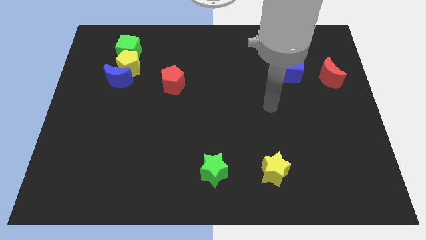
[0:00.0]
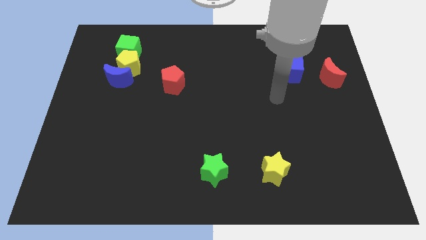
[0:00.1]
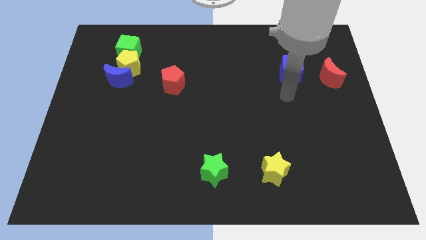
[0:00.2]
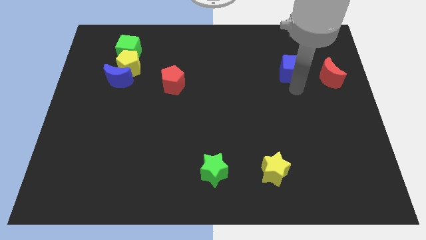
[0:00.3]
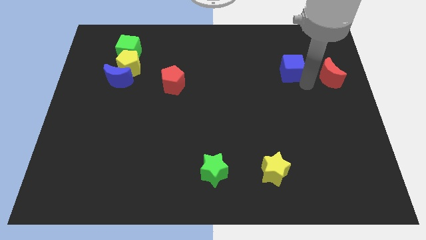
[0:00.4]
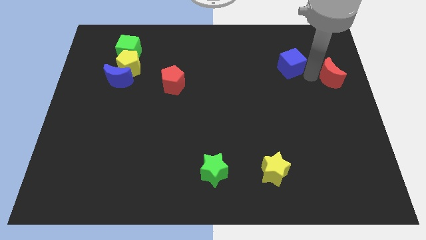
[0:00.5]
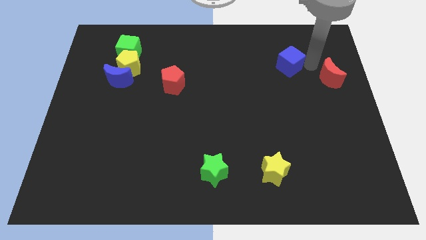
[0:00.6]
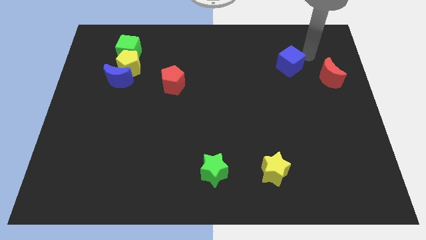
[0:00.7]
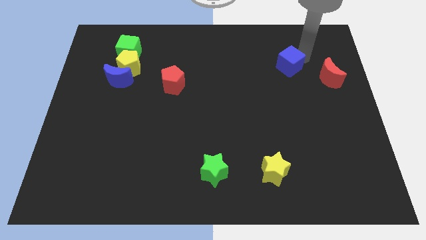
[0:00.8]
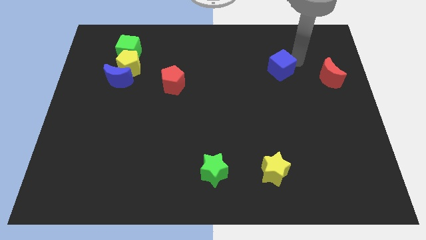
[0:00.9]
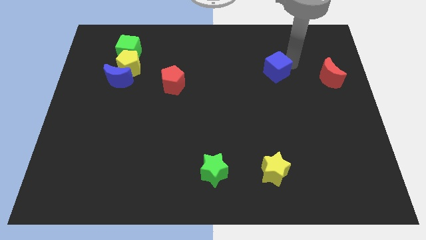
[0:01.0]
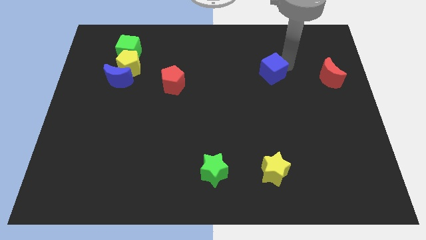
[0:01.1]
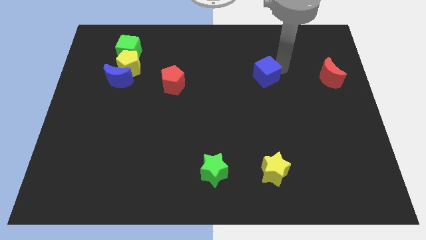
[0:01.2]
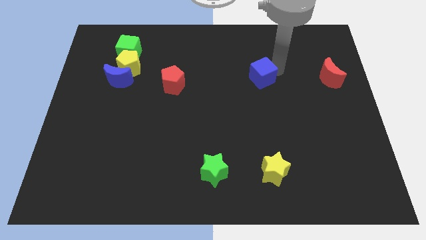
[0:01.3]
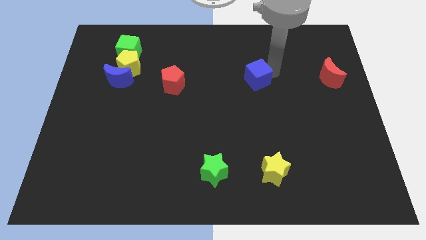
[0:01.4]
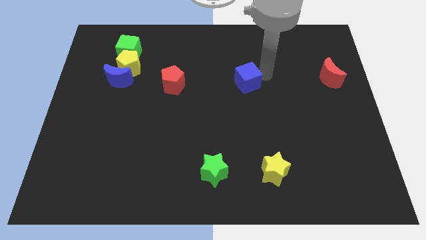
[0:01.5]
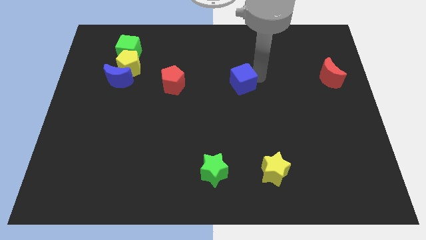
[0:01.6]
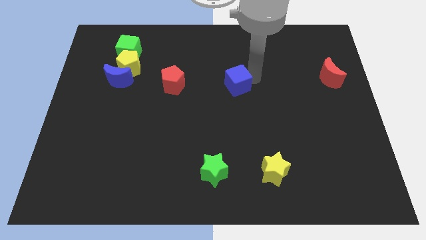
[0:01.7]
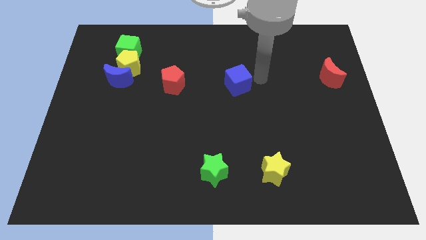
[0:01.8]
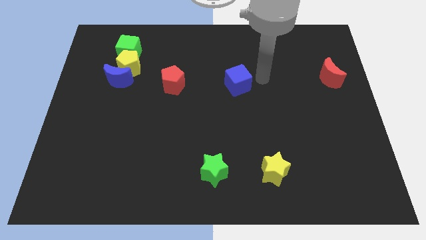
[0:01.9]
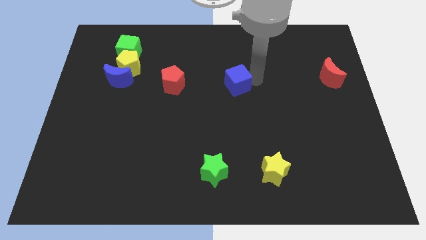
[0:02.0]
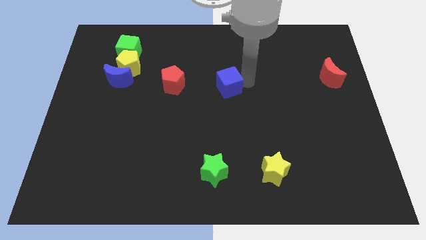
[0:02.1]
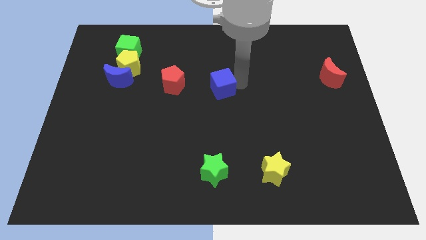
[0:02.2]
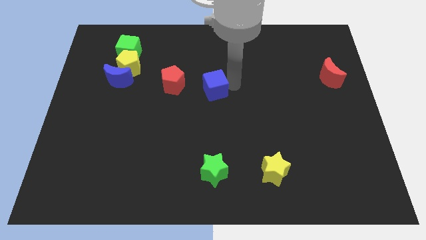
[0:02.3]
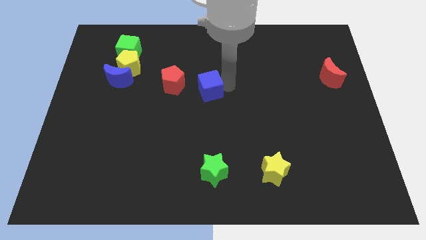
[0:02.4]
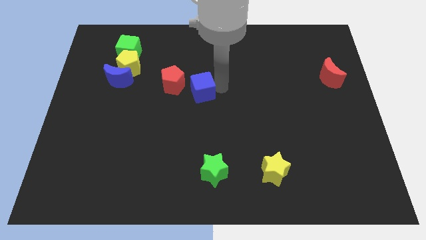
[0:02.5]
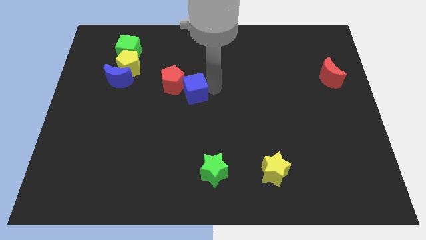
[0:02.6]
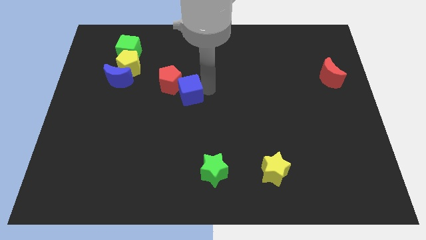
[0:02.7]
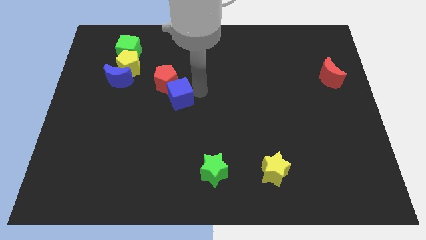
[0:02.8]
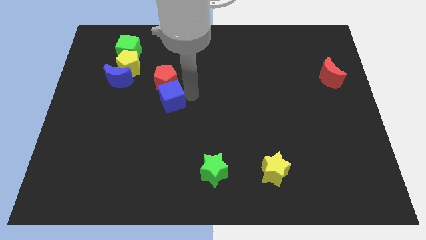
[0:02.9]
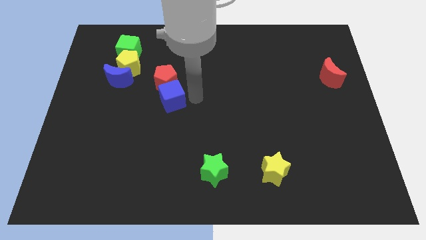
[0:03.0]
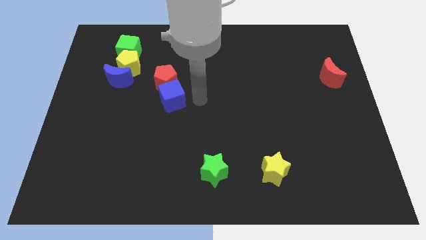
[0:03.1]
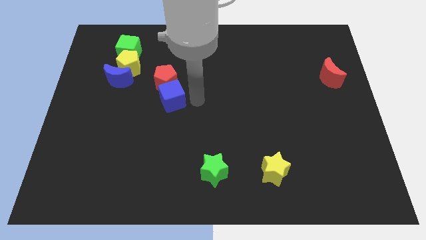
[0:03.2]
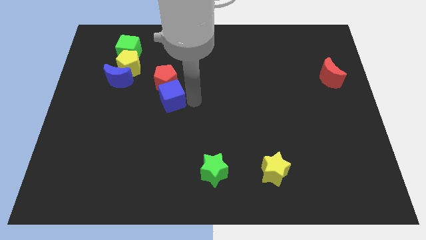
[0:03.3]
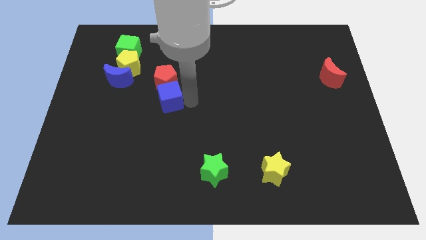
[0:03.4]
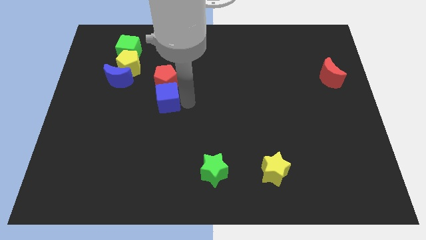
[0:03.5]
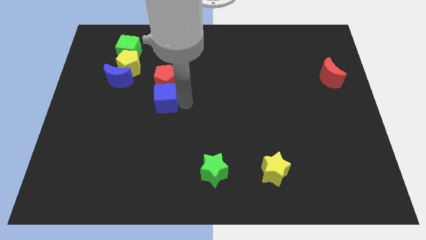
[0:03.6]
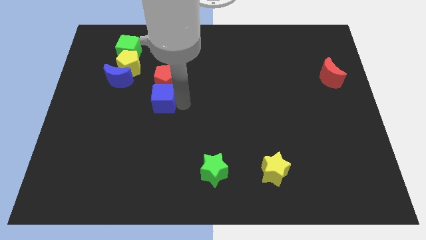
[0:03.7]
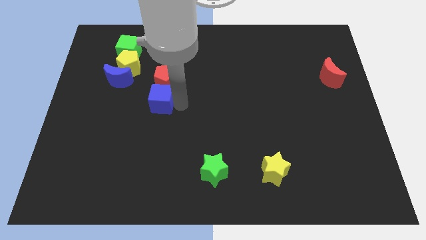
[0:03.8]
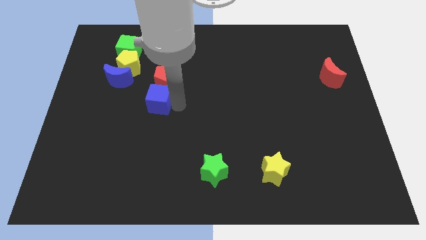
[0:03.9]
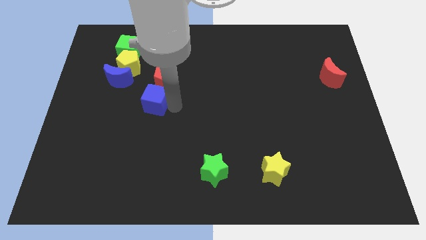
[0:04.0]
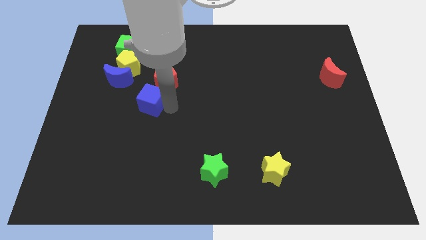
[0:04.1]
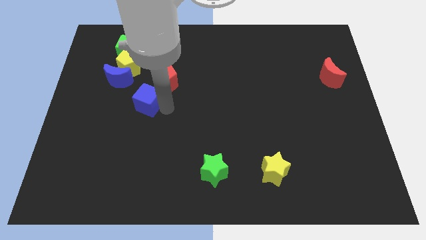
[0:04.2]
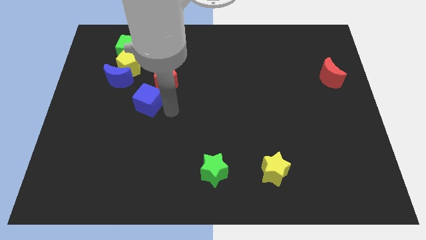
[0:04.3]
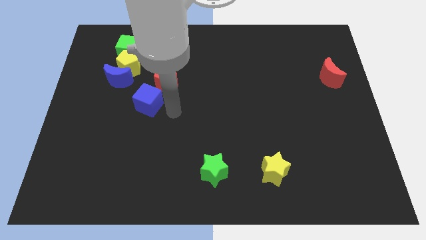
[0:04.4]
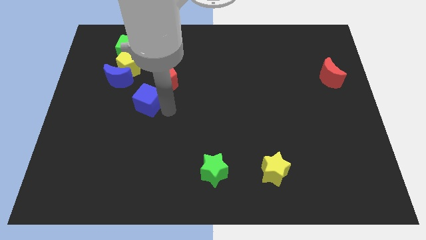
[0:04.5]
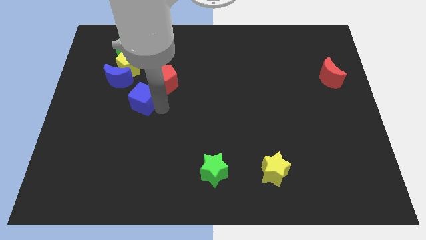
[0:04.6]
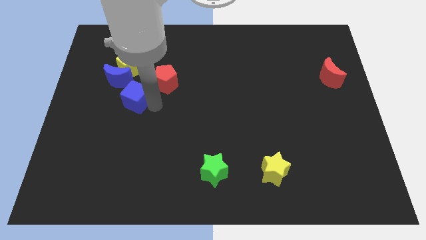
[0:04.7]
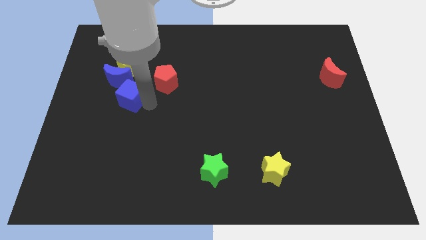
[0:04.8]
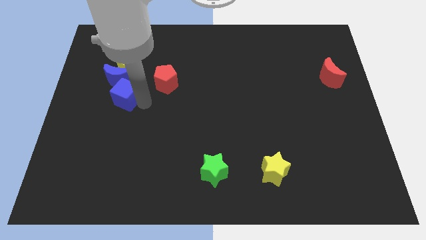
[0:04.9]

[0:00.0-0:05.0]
move the blue cube to the bottom of the green cube

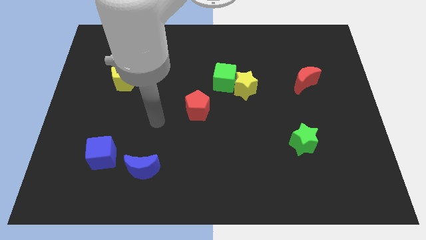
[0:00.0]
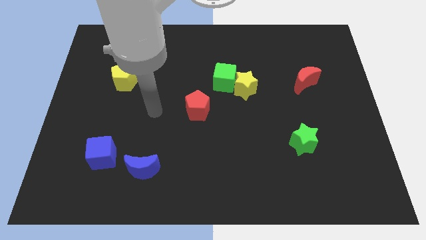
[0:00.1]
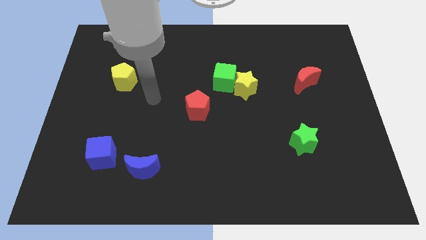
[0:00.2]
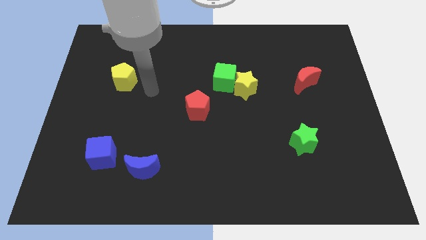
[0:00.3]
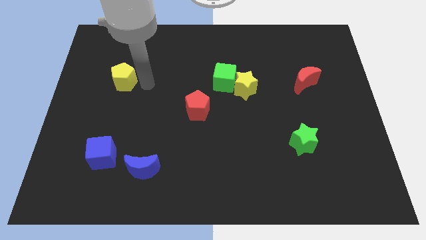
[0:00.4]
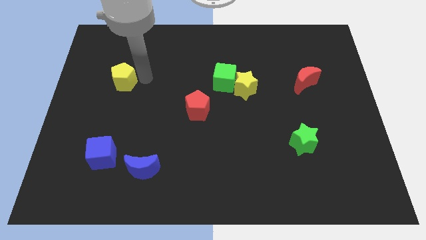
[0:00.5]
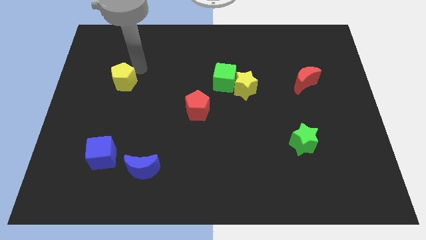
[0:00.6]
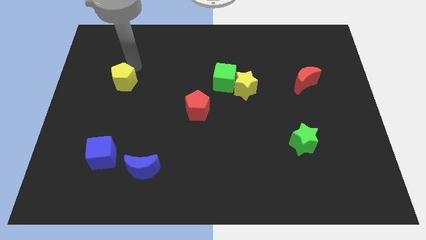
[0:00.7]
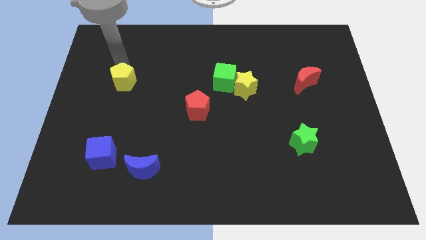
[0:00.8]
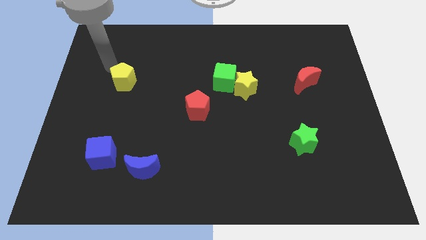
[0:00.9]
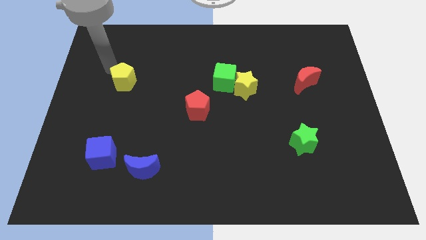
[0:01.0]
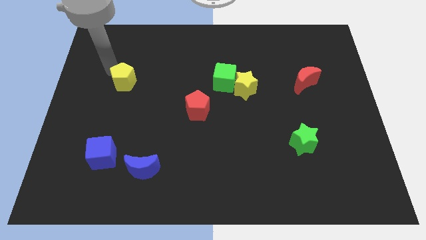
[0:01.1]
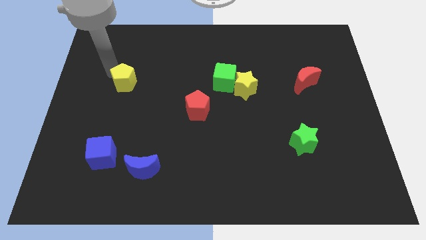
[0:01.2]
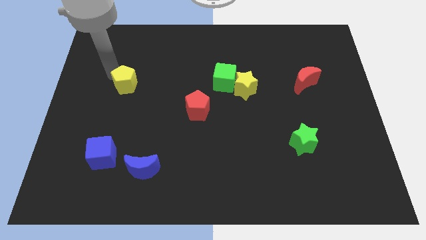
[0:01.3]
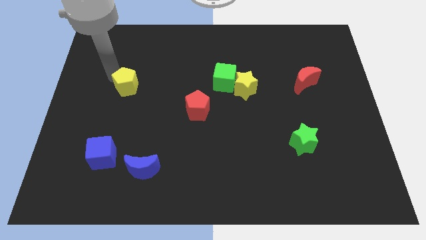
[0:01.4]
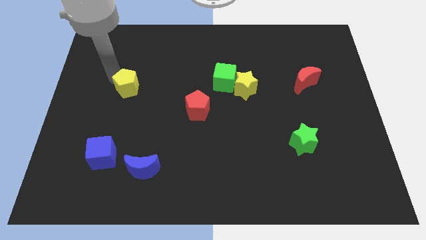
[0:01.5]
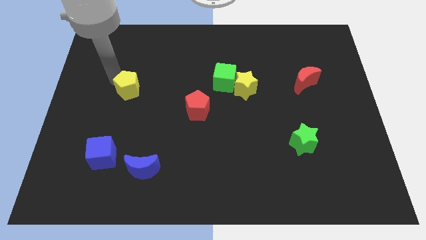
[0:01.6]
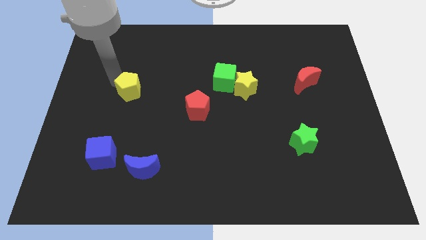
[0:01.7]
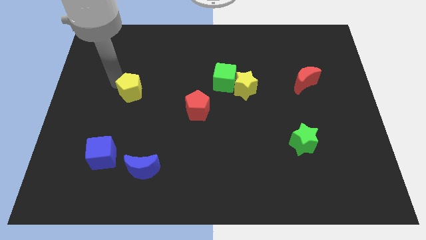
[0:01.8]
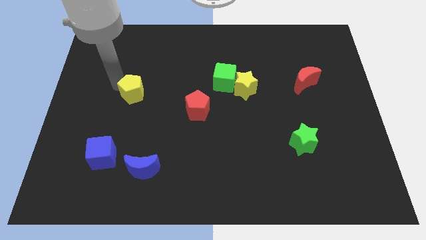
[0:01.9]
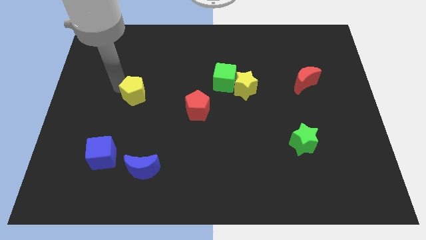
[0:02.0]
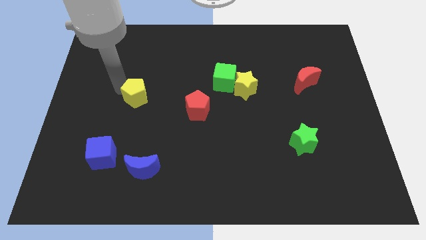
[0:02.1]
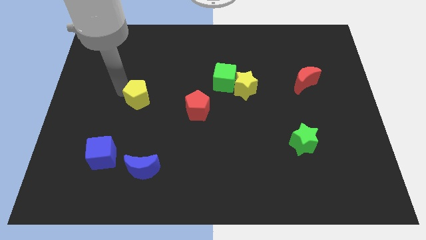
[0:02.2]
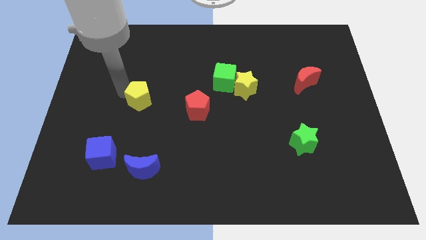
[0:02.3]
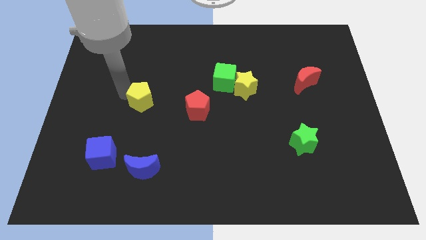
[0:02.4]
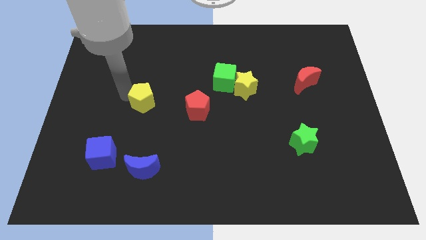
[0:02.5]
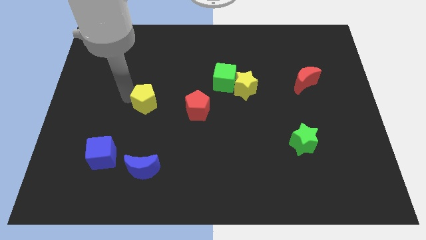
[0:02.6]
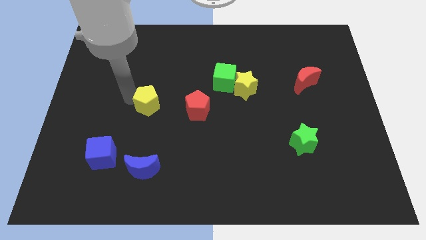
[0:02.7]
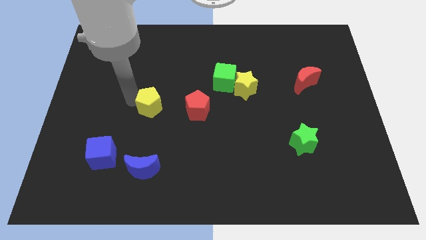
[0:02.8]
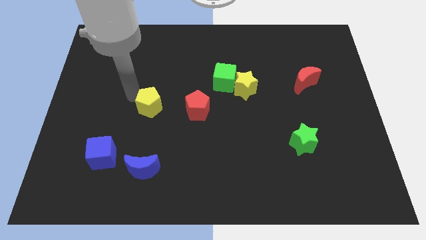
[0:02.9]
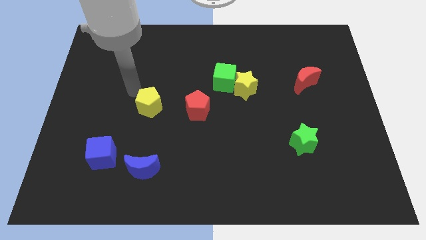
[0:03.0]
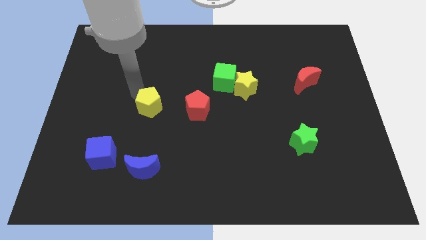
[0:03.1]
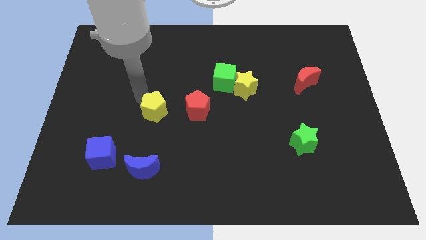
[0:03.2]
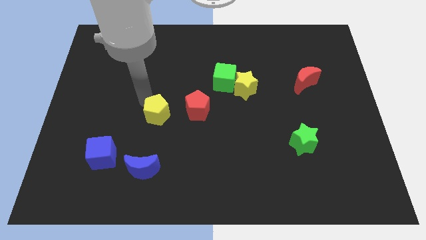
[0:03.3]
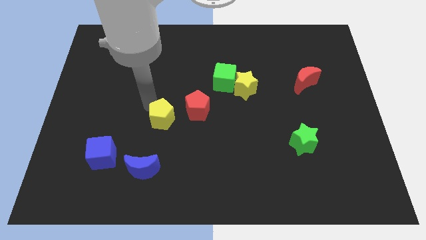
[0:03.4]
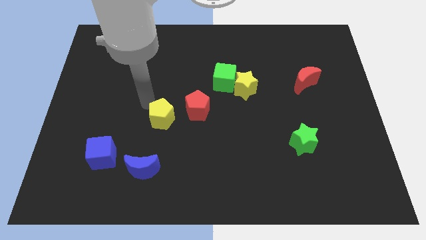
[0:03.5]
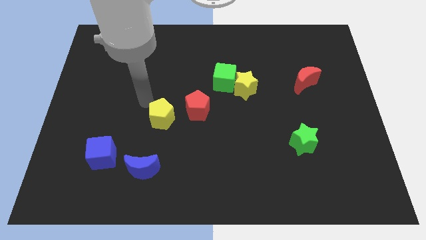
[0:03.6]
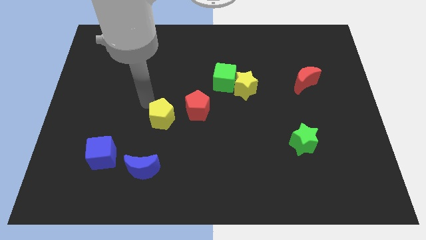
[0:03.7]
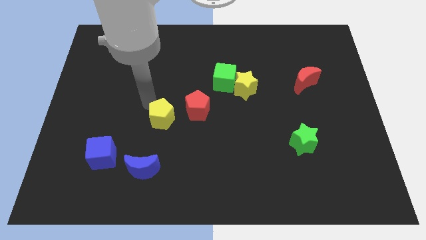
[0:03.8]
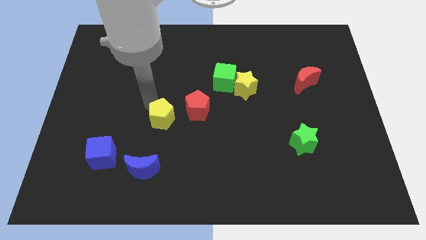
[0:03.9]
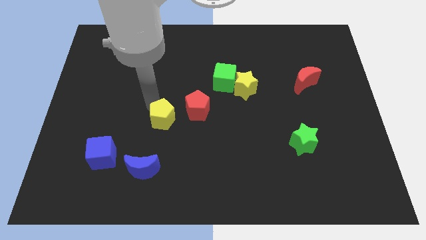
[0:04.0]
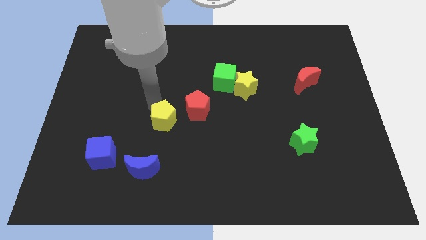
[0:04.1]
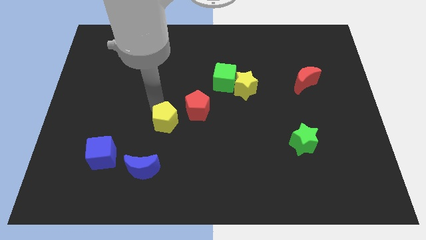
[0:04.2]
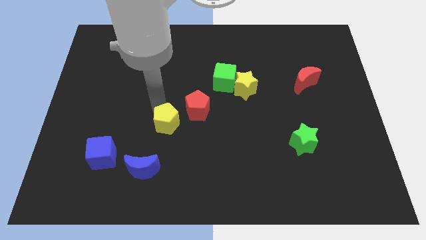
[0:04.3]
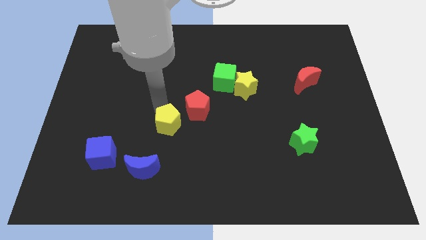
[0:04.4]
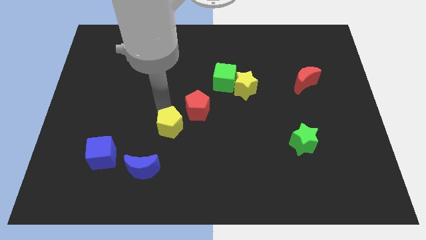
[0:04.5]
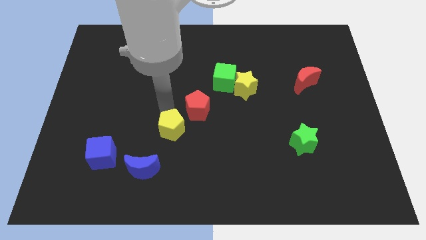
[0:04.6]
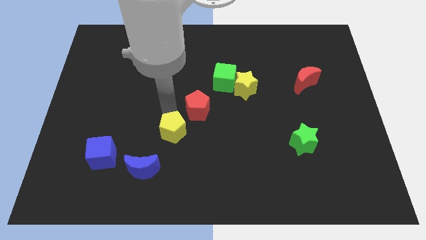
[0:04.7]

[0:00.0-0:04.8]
move the yellow pentagon below the red pentagon
